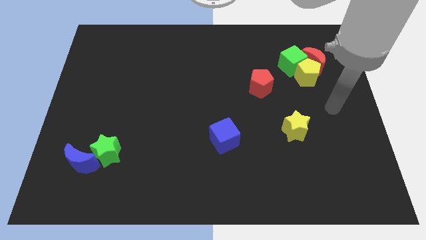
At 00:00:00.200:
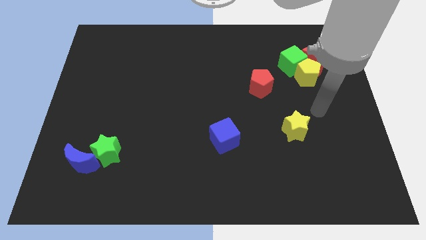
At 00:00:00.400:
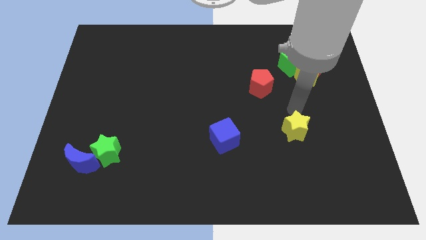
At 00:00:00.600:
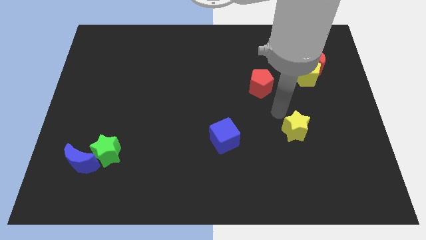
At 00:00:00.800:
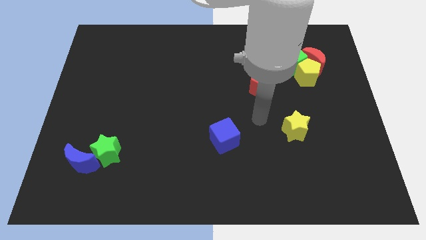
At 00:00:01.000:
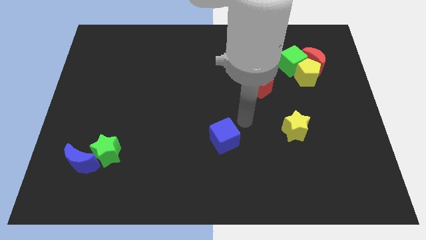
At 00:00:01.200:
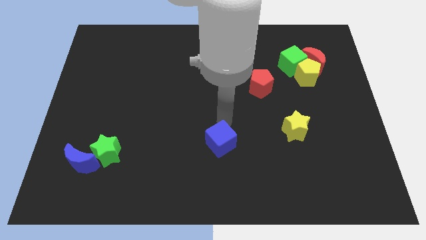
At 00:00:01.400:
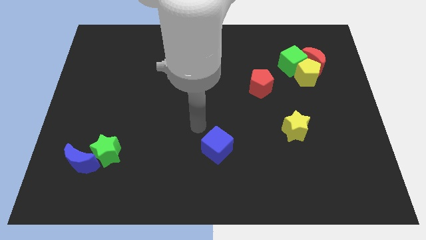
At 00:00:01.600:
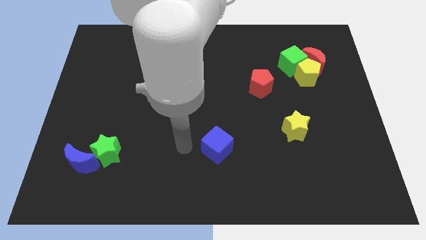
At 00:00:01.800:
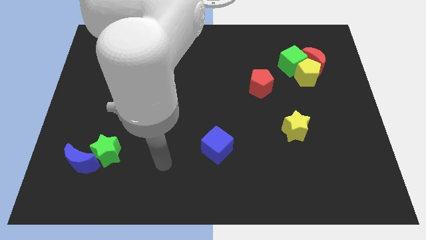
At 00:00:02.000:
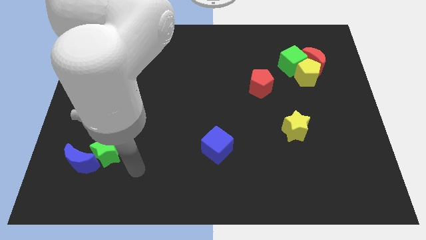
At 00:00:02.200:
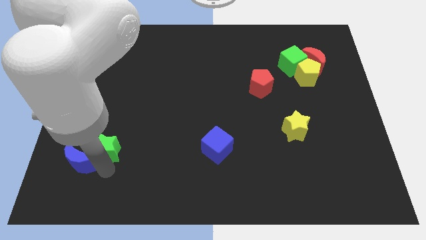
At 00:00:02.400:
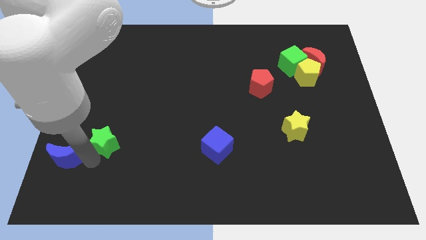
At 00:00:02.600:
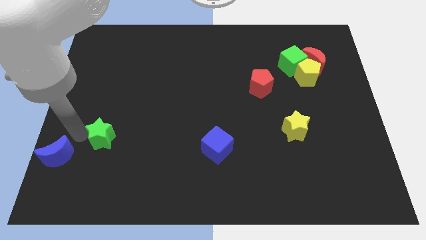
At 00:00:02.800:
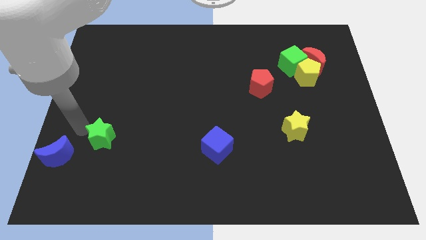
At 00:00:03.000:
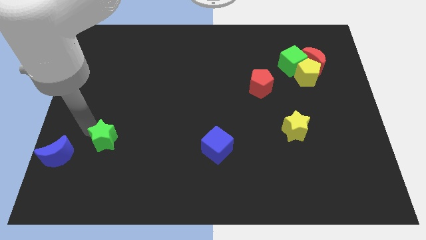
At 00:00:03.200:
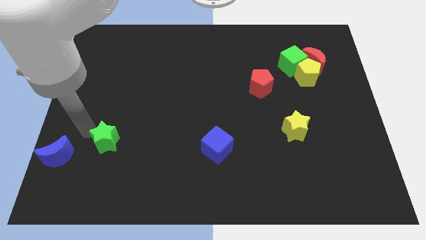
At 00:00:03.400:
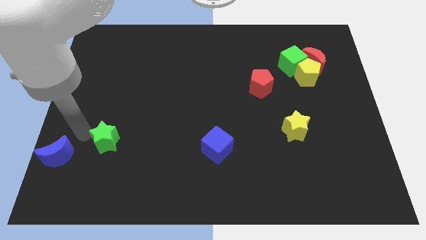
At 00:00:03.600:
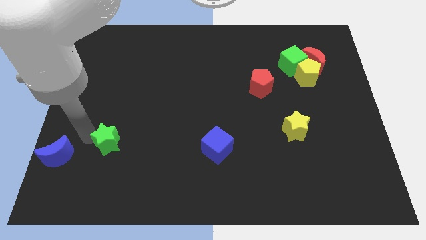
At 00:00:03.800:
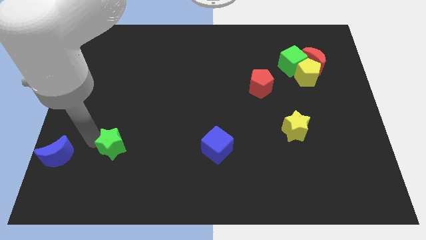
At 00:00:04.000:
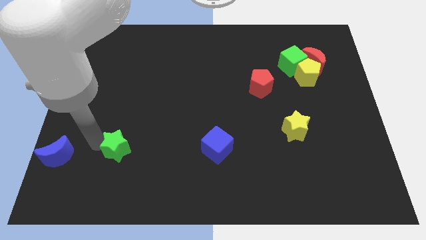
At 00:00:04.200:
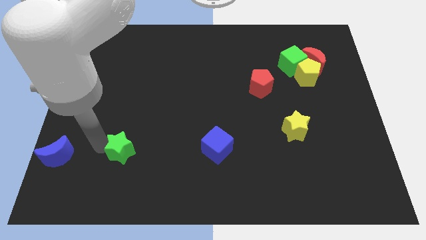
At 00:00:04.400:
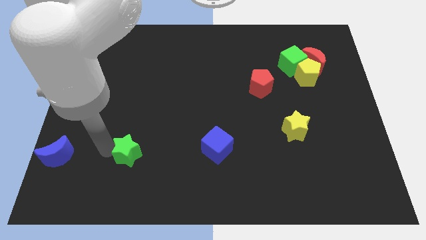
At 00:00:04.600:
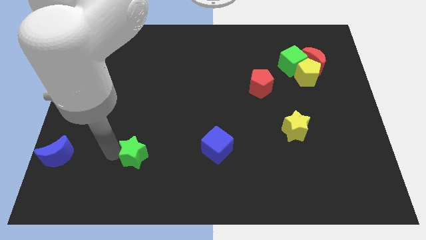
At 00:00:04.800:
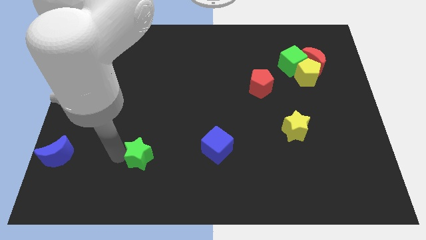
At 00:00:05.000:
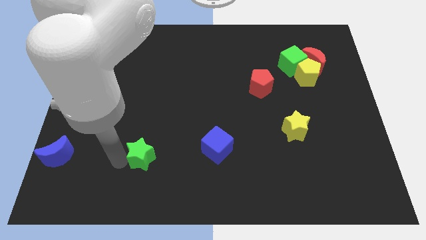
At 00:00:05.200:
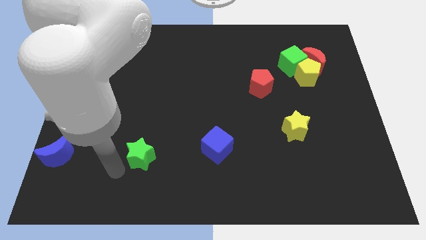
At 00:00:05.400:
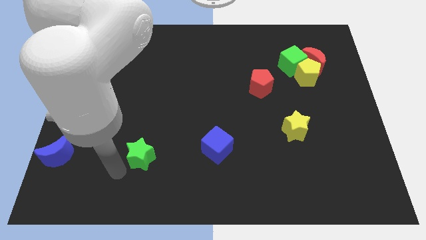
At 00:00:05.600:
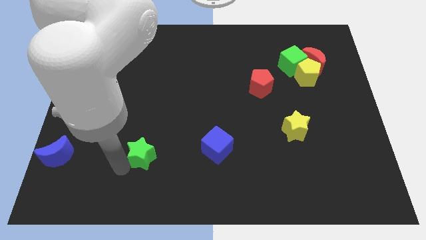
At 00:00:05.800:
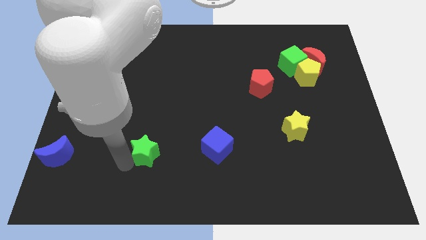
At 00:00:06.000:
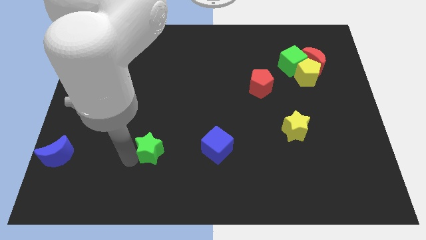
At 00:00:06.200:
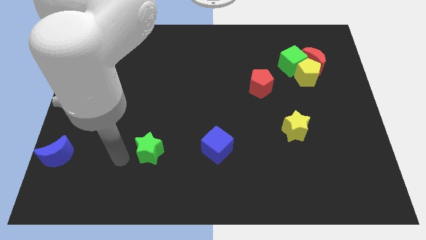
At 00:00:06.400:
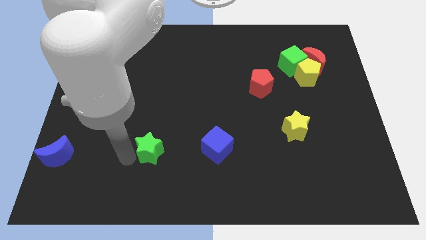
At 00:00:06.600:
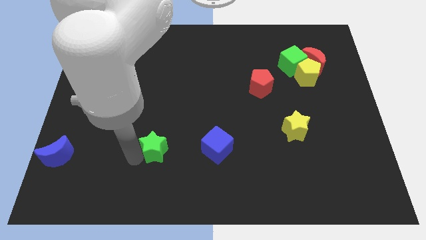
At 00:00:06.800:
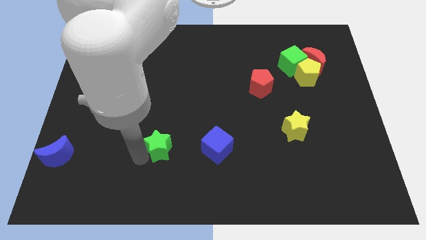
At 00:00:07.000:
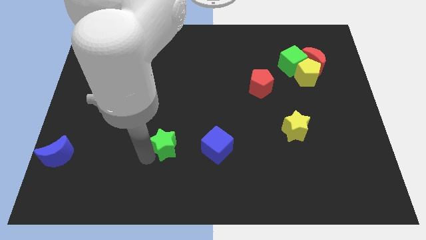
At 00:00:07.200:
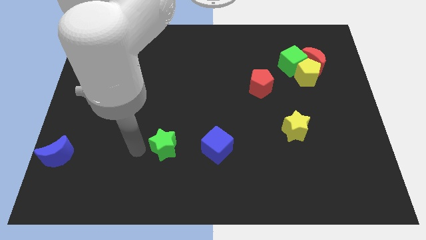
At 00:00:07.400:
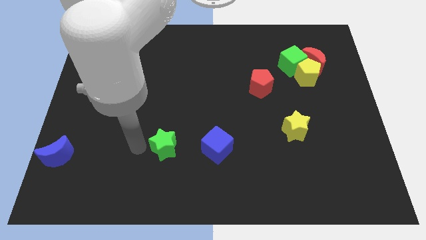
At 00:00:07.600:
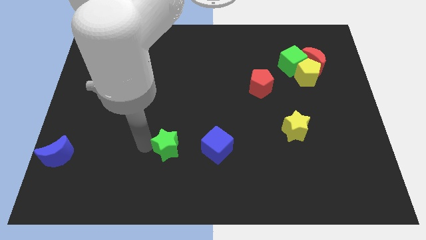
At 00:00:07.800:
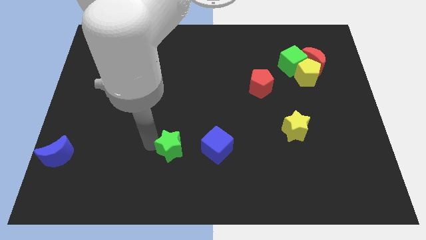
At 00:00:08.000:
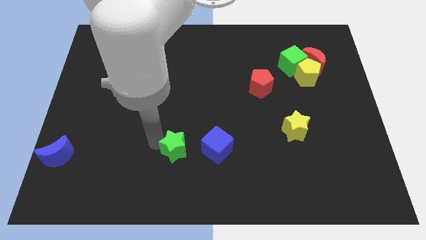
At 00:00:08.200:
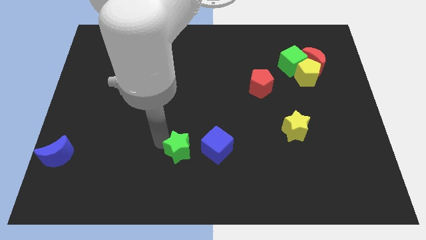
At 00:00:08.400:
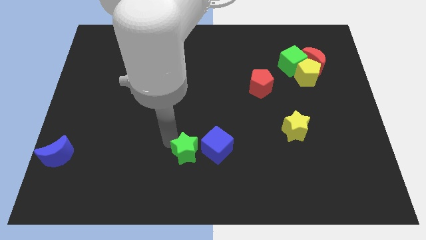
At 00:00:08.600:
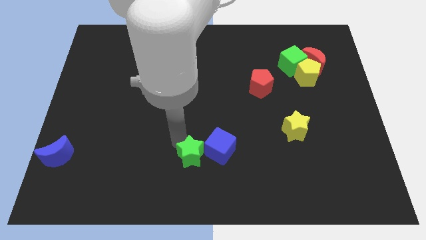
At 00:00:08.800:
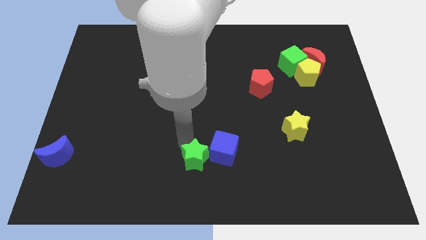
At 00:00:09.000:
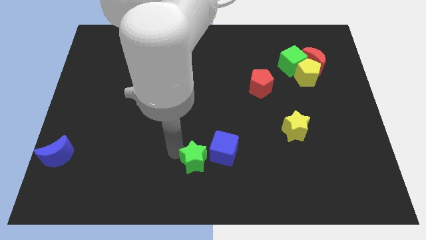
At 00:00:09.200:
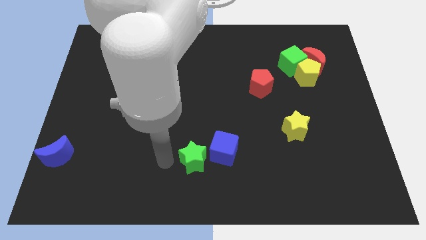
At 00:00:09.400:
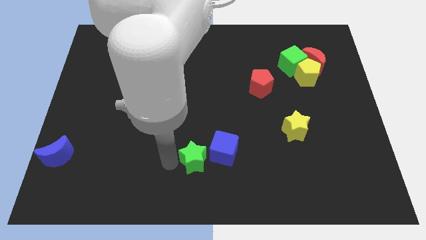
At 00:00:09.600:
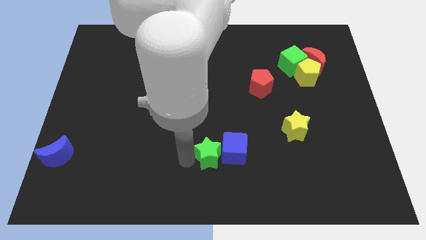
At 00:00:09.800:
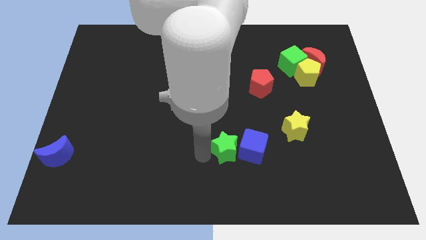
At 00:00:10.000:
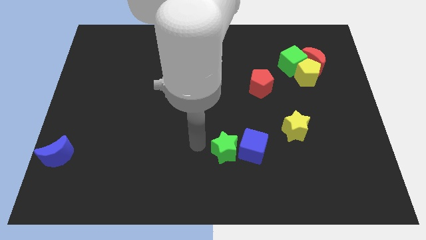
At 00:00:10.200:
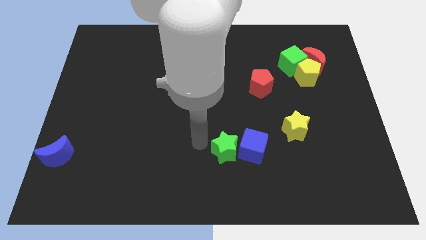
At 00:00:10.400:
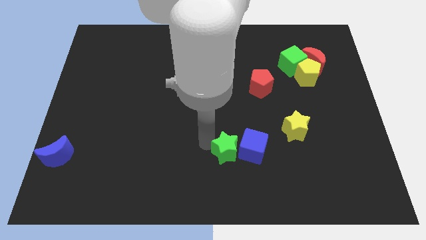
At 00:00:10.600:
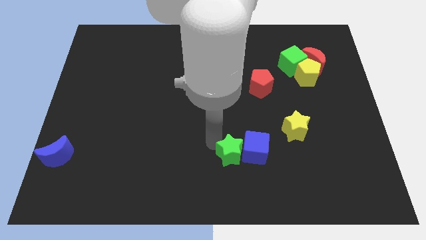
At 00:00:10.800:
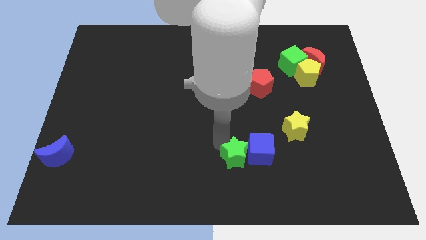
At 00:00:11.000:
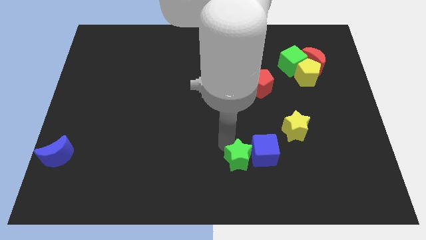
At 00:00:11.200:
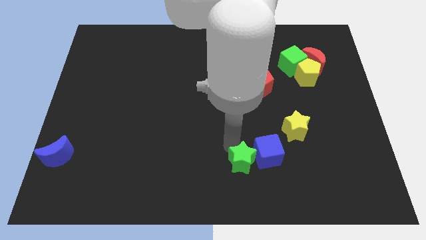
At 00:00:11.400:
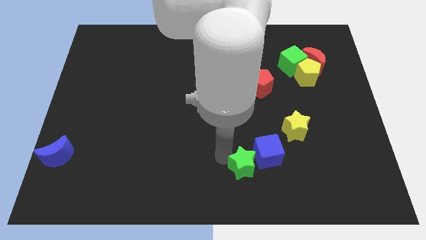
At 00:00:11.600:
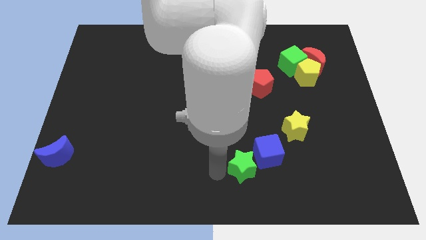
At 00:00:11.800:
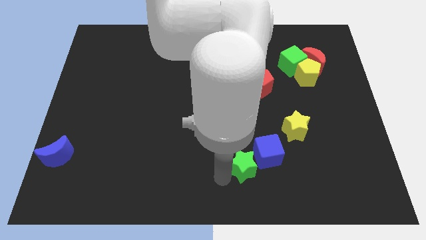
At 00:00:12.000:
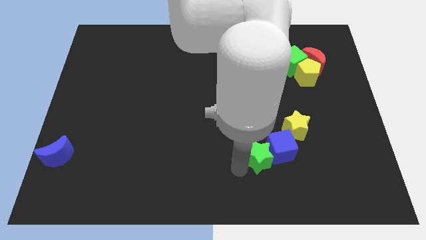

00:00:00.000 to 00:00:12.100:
put the green star diagonally down and to the left of the yellow star
